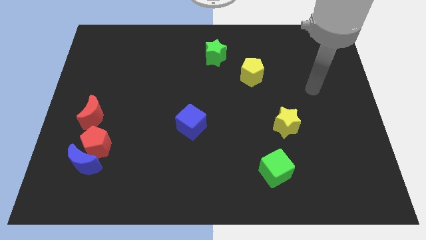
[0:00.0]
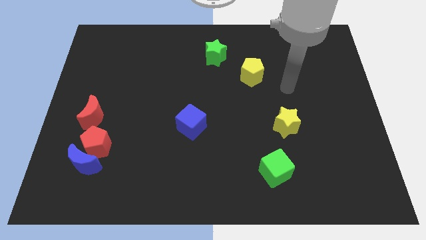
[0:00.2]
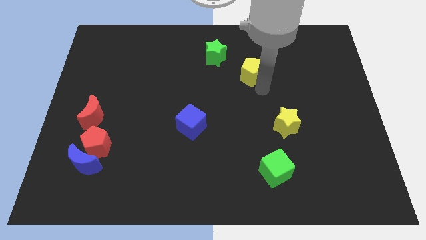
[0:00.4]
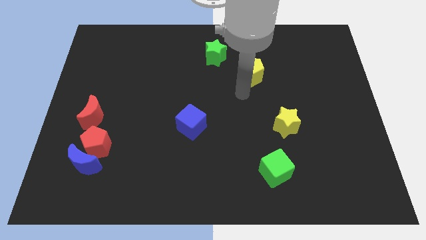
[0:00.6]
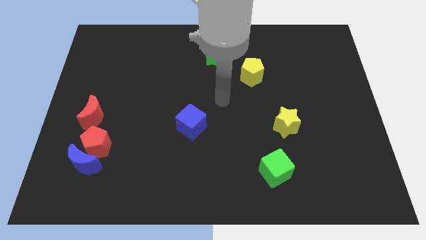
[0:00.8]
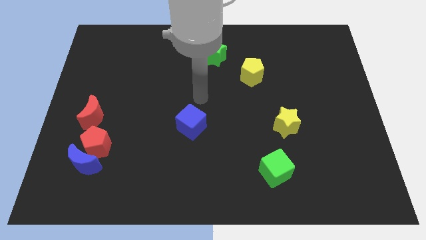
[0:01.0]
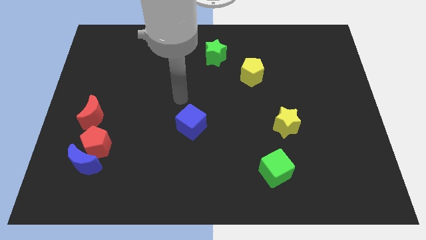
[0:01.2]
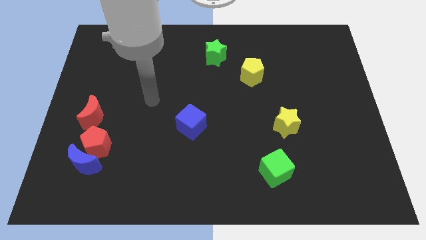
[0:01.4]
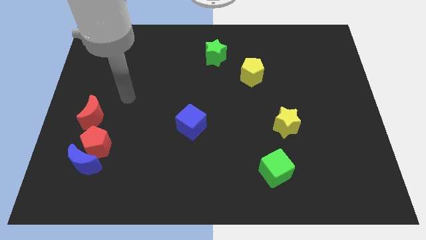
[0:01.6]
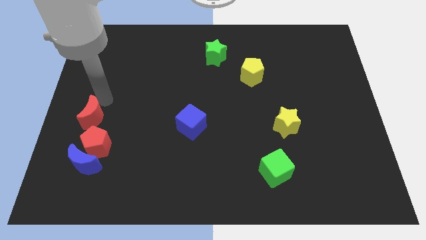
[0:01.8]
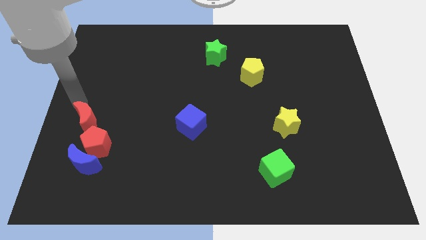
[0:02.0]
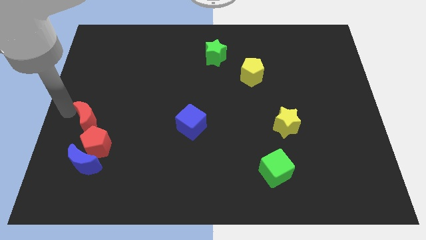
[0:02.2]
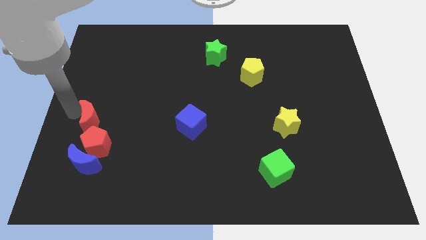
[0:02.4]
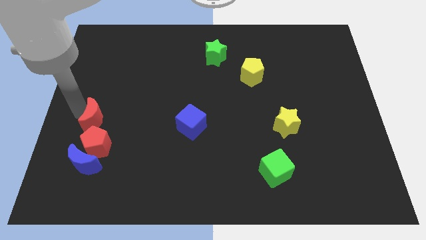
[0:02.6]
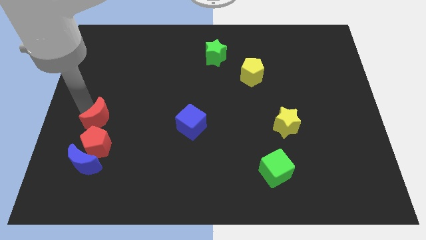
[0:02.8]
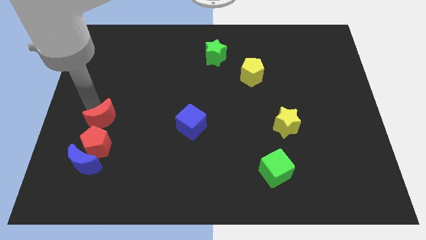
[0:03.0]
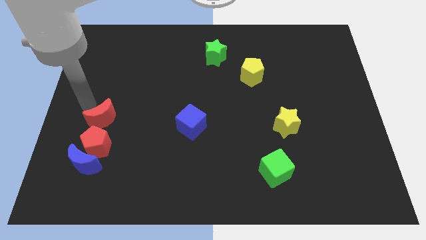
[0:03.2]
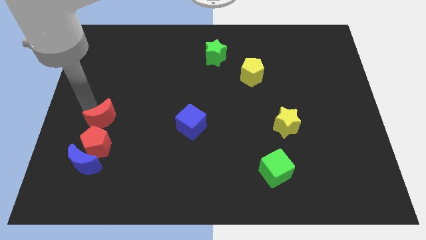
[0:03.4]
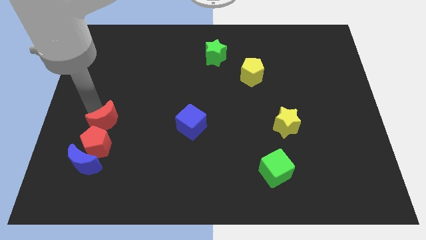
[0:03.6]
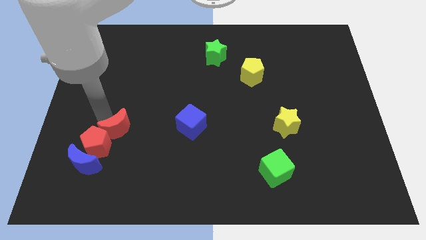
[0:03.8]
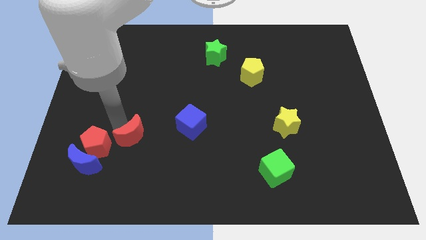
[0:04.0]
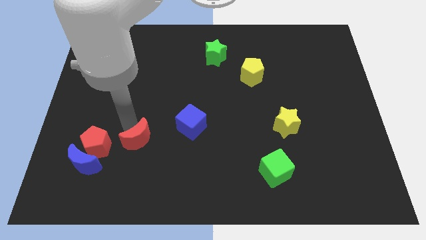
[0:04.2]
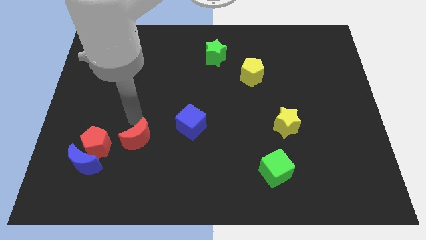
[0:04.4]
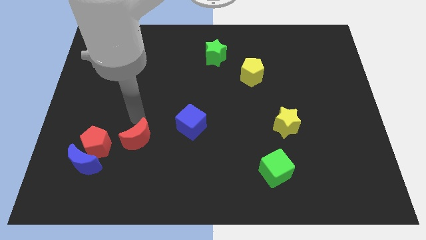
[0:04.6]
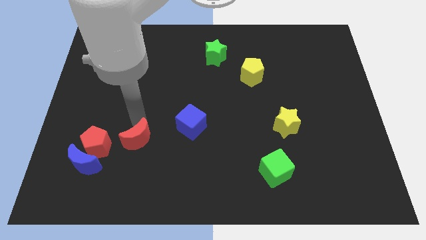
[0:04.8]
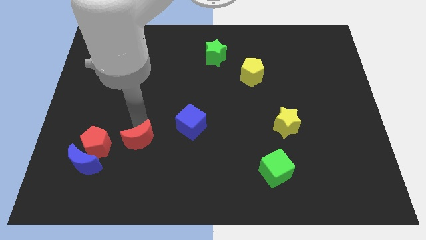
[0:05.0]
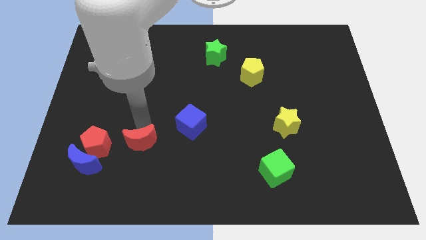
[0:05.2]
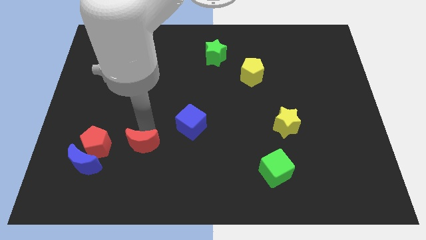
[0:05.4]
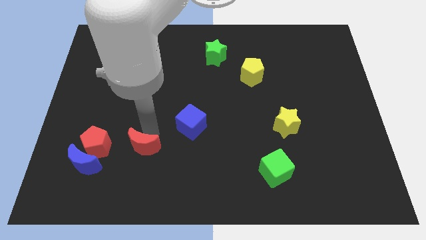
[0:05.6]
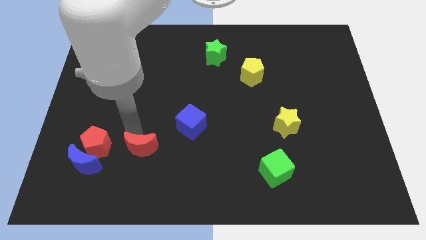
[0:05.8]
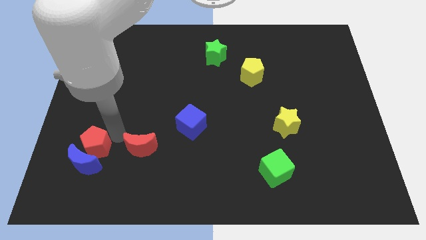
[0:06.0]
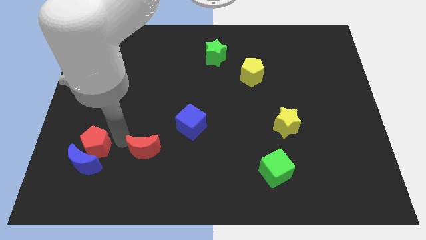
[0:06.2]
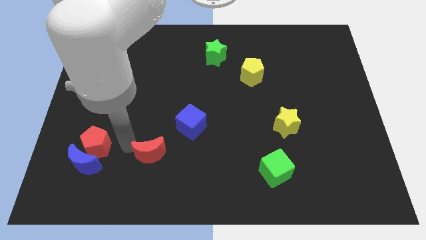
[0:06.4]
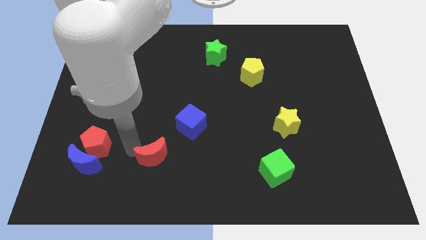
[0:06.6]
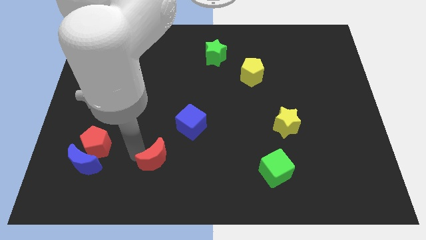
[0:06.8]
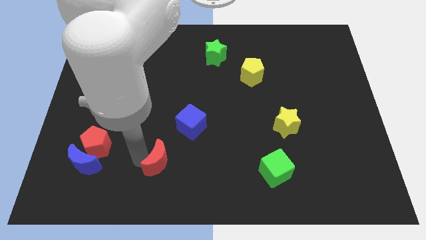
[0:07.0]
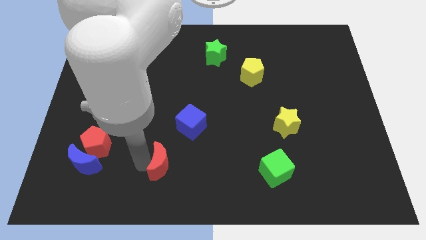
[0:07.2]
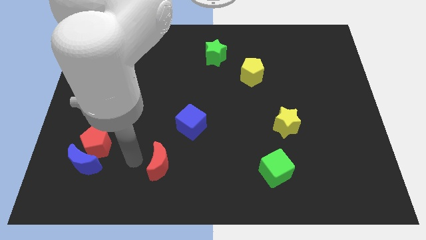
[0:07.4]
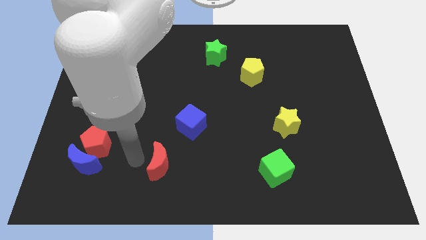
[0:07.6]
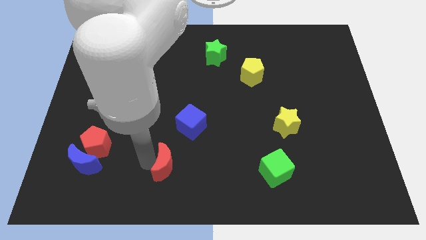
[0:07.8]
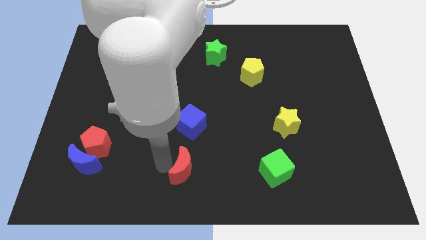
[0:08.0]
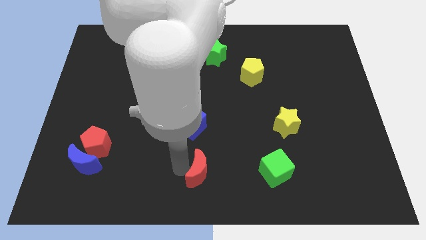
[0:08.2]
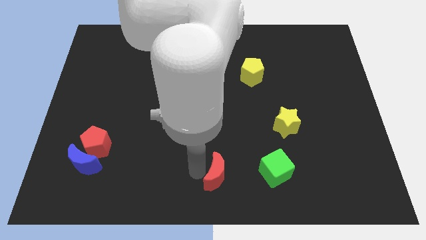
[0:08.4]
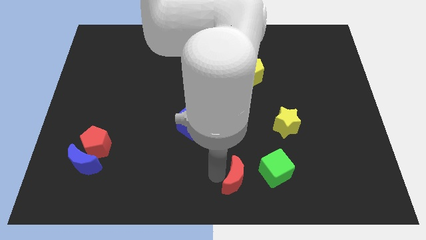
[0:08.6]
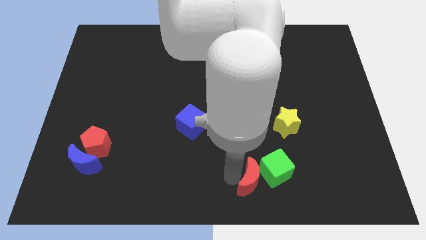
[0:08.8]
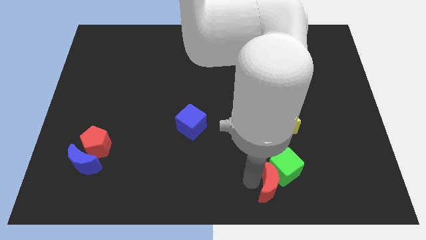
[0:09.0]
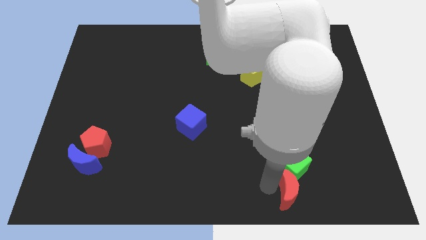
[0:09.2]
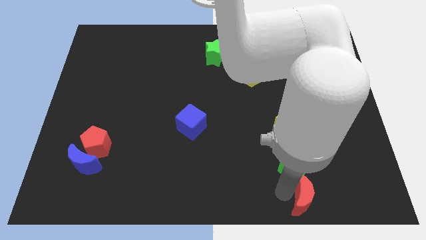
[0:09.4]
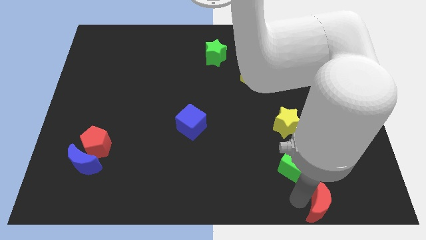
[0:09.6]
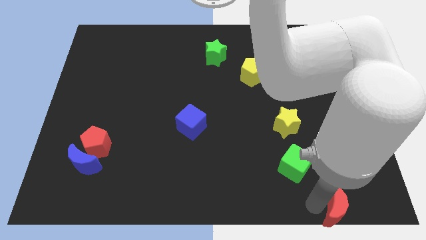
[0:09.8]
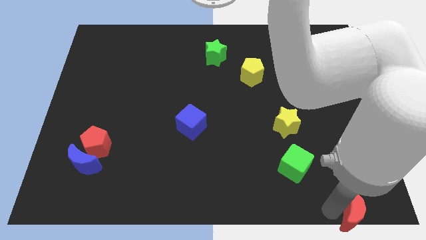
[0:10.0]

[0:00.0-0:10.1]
move the red moon to the lower right corner

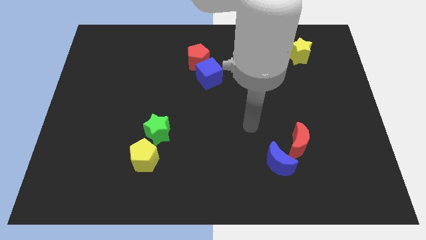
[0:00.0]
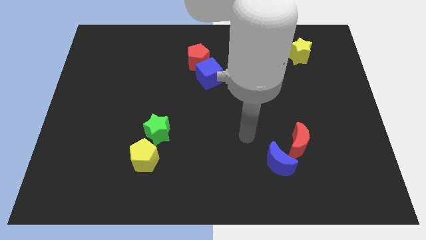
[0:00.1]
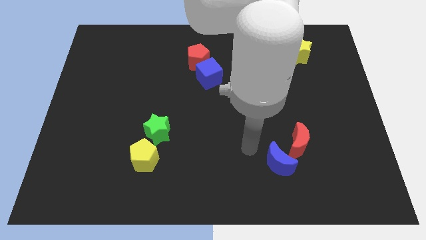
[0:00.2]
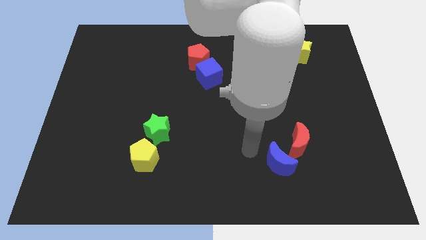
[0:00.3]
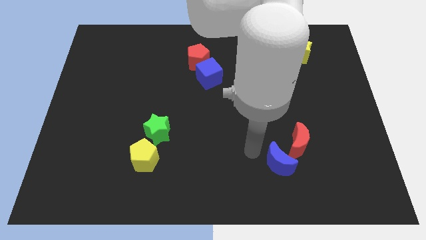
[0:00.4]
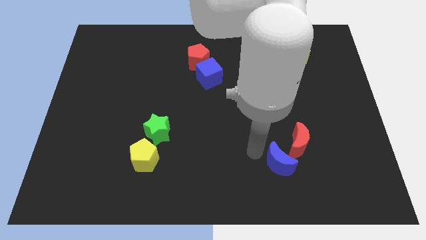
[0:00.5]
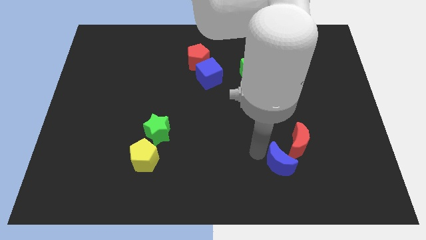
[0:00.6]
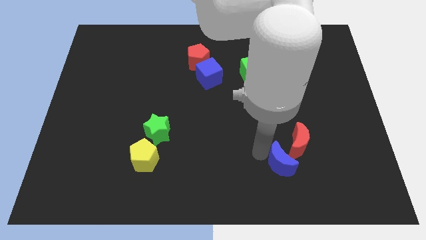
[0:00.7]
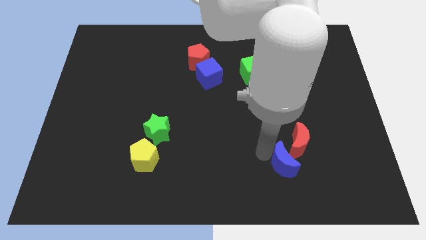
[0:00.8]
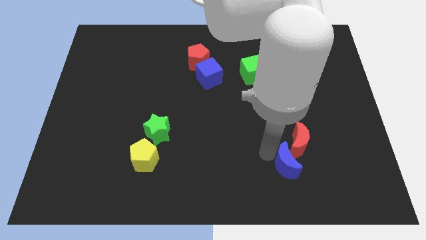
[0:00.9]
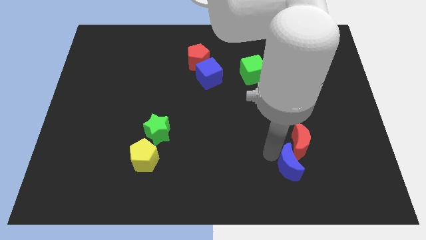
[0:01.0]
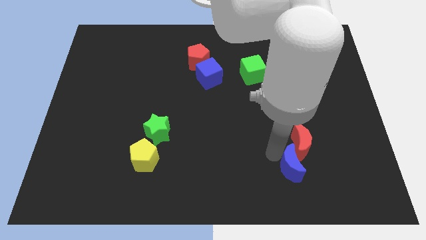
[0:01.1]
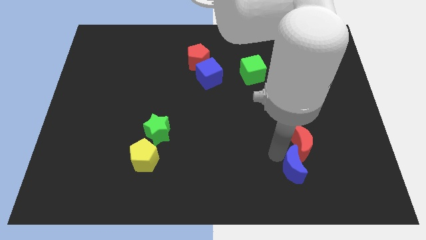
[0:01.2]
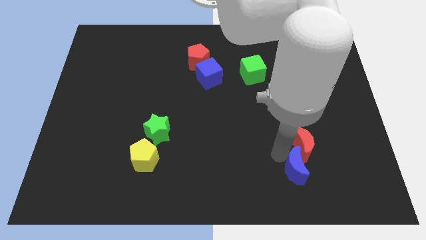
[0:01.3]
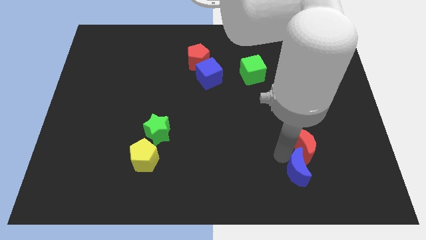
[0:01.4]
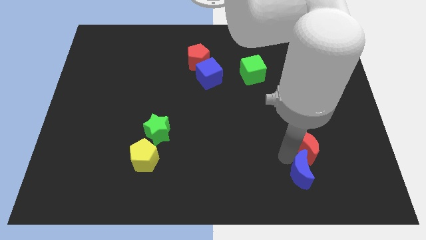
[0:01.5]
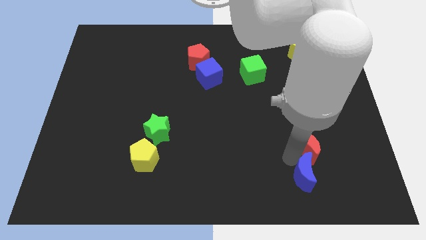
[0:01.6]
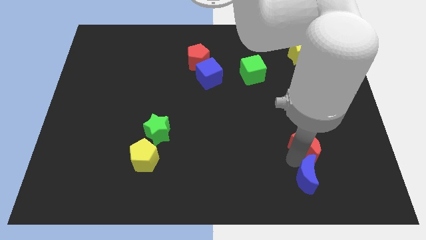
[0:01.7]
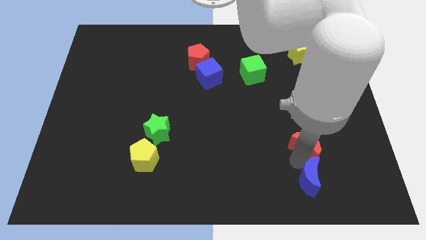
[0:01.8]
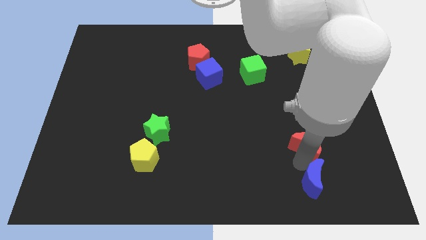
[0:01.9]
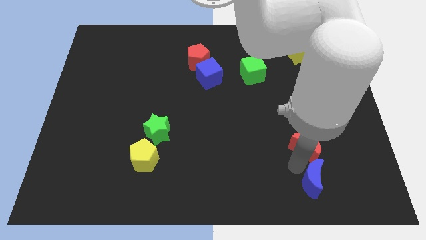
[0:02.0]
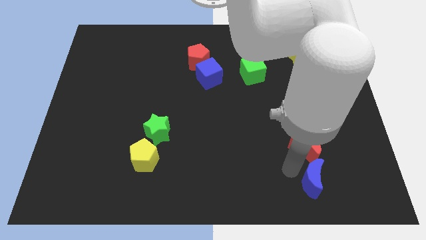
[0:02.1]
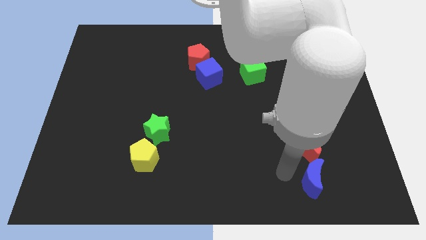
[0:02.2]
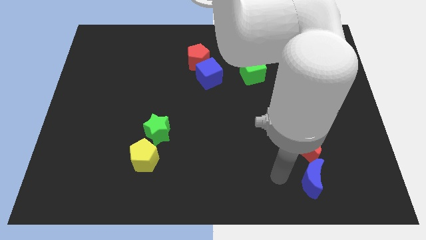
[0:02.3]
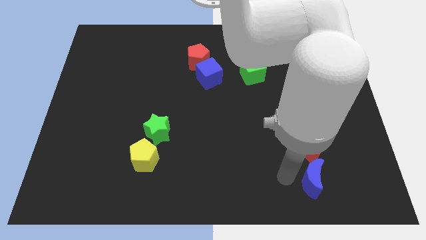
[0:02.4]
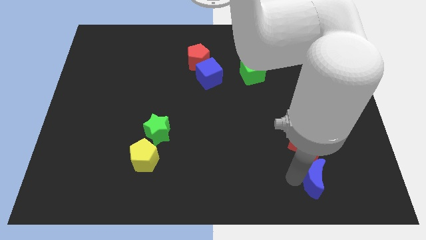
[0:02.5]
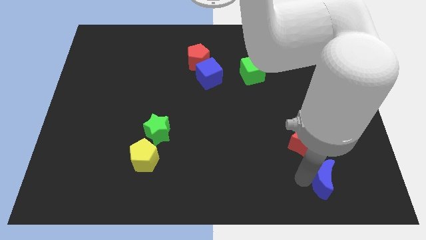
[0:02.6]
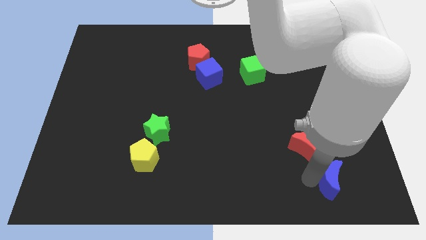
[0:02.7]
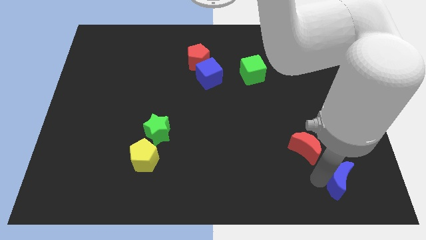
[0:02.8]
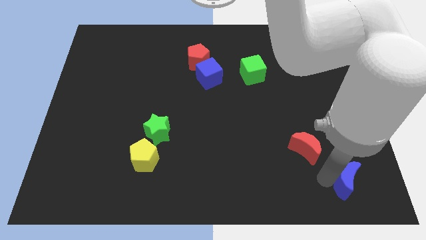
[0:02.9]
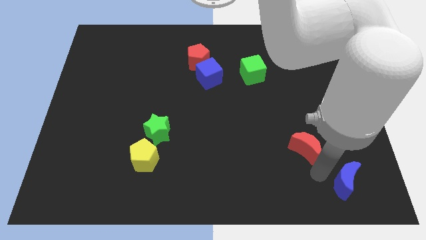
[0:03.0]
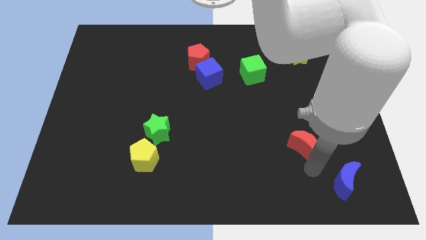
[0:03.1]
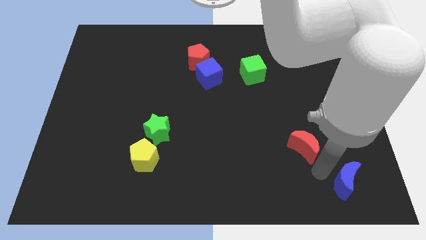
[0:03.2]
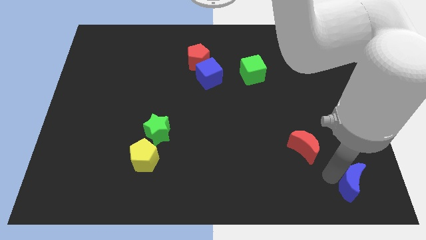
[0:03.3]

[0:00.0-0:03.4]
move the blue moon to the bottom right corner
